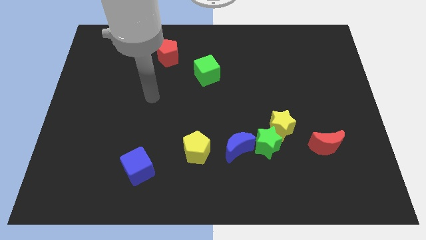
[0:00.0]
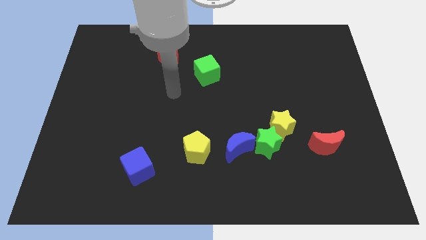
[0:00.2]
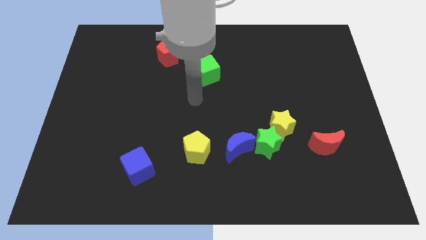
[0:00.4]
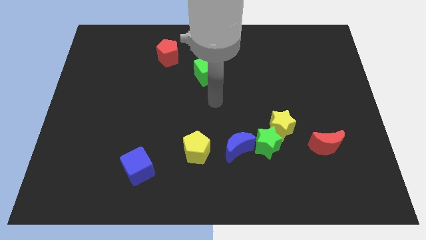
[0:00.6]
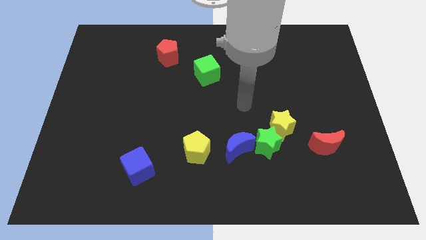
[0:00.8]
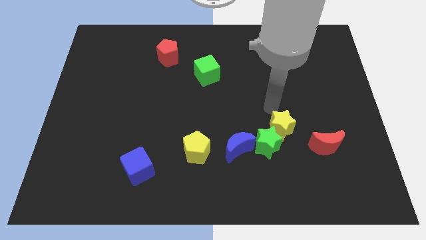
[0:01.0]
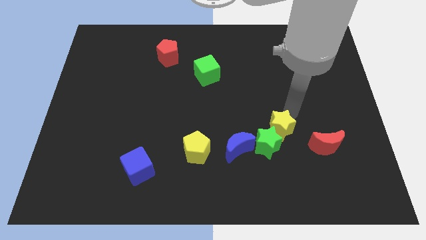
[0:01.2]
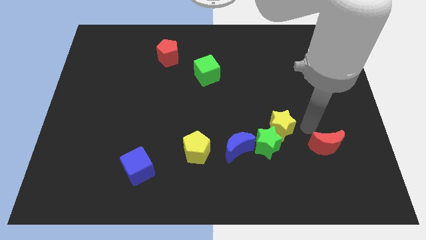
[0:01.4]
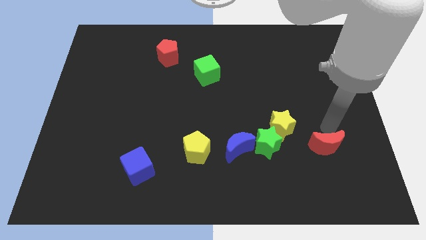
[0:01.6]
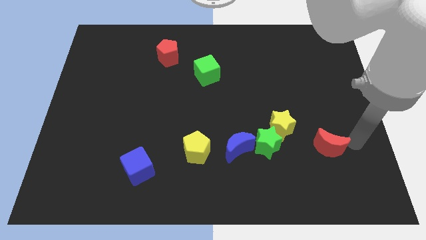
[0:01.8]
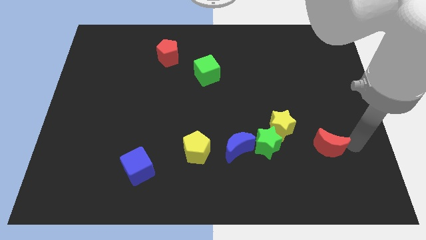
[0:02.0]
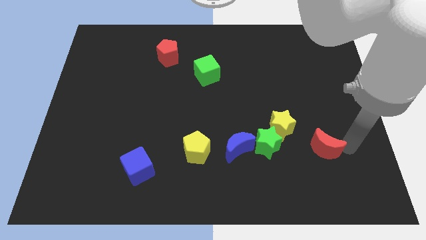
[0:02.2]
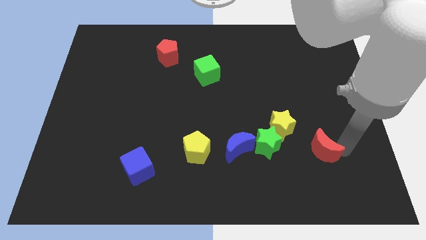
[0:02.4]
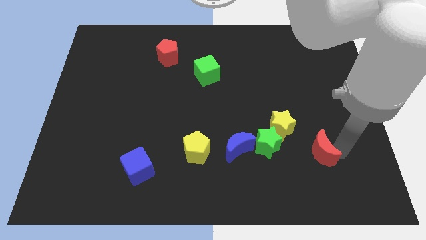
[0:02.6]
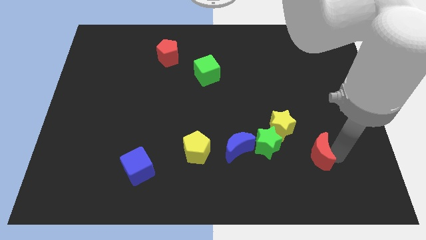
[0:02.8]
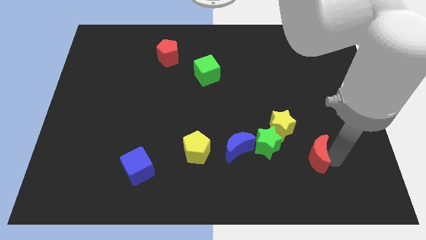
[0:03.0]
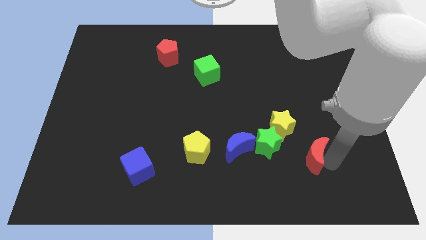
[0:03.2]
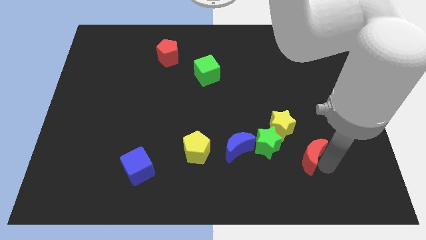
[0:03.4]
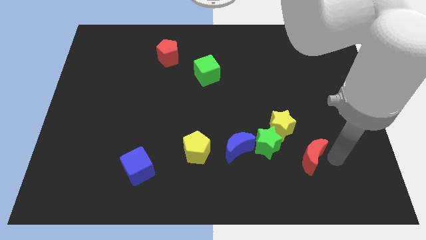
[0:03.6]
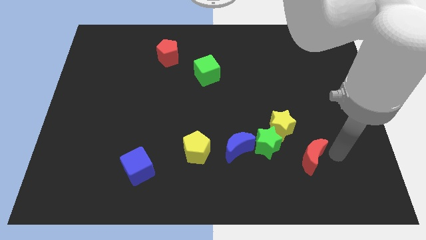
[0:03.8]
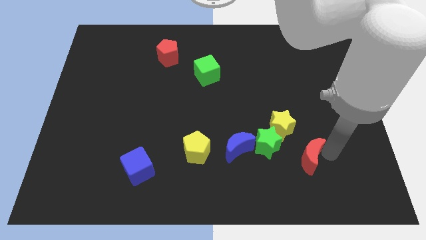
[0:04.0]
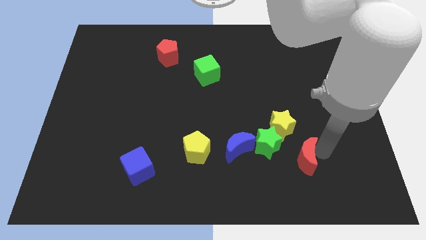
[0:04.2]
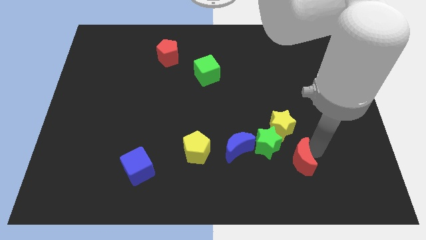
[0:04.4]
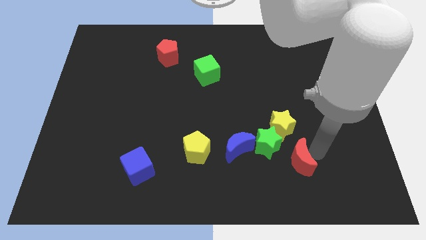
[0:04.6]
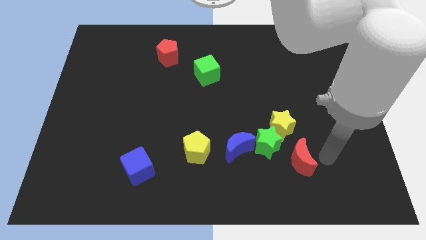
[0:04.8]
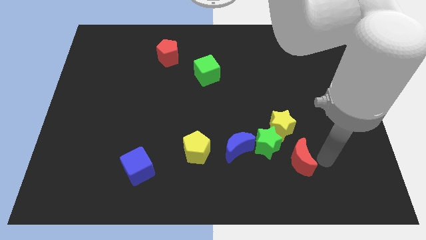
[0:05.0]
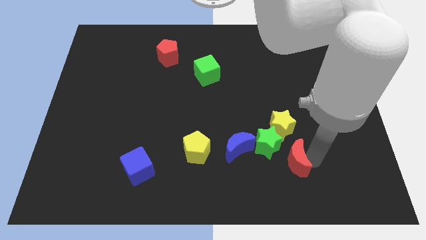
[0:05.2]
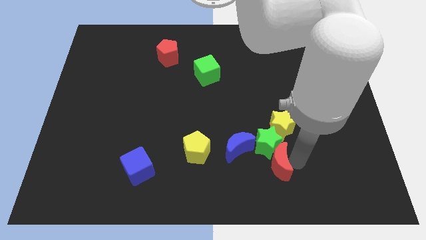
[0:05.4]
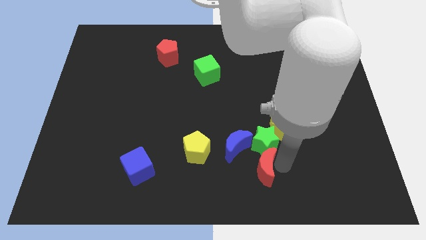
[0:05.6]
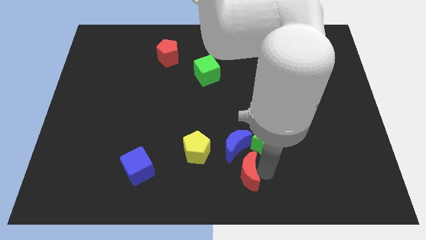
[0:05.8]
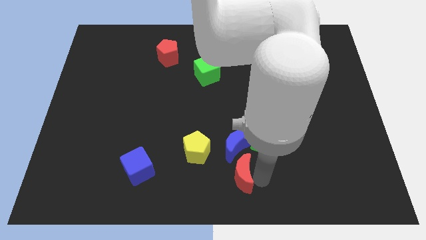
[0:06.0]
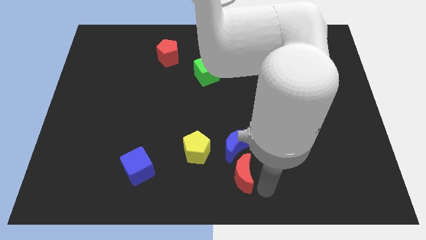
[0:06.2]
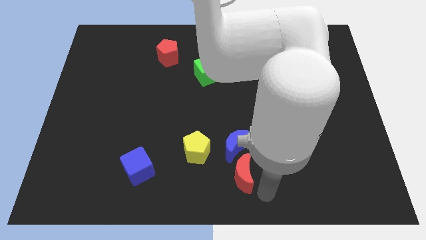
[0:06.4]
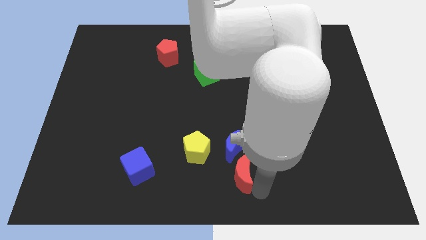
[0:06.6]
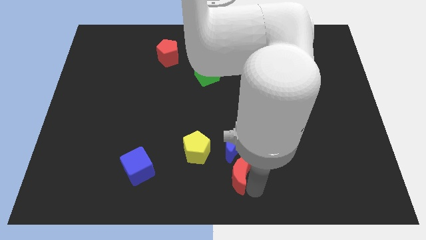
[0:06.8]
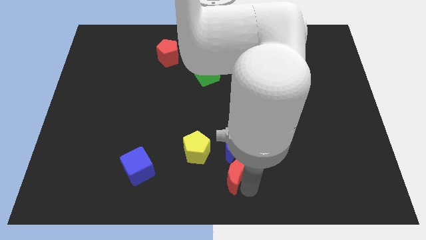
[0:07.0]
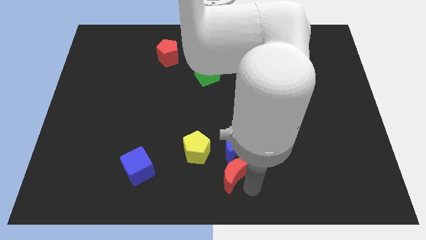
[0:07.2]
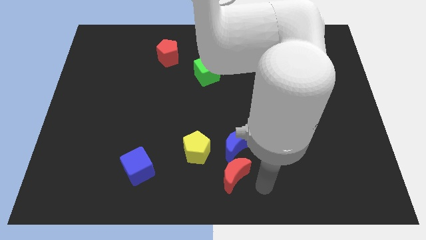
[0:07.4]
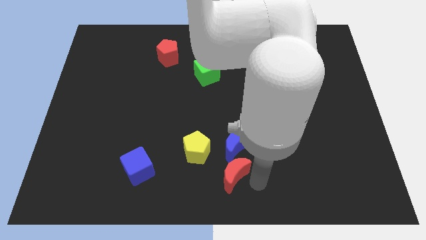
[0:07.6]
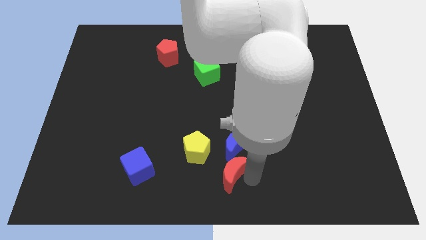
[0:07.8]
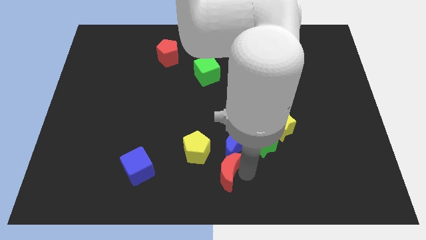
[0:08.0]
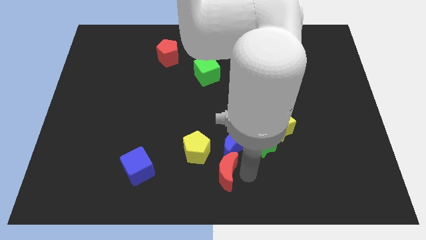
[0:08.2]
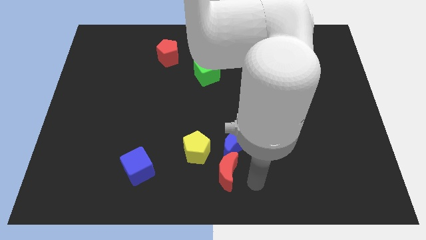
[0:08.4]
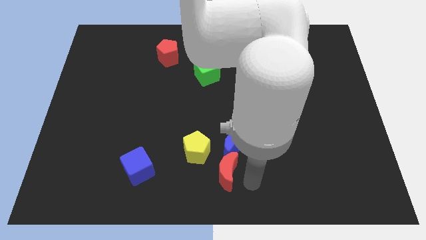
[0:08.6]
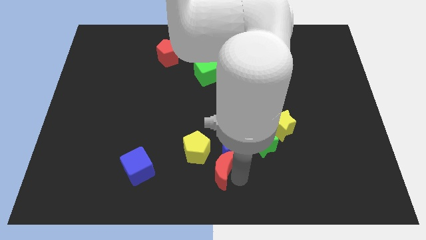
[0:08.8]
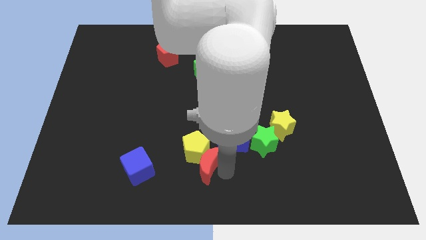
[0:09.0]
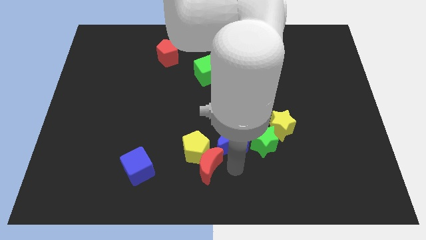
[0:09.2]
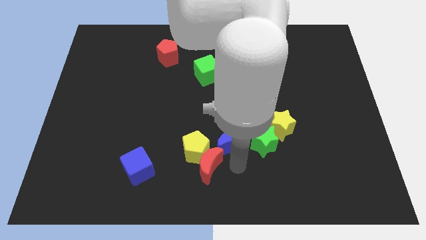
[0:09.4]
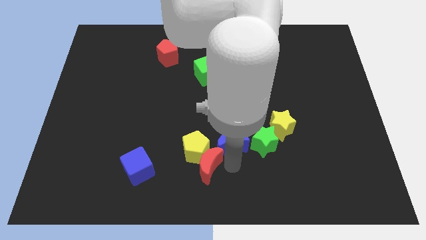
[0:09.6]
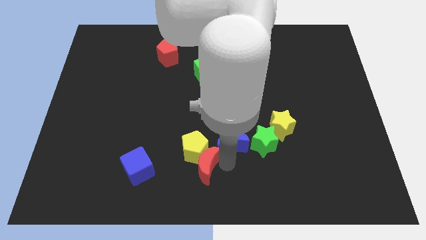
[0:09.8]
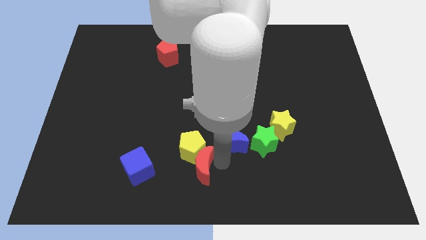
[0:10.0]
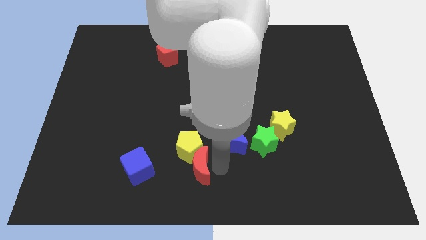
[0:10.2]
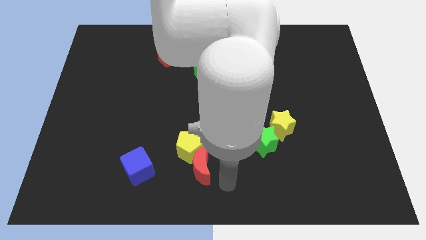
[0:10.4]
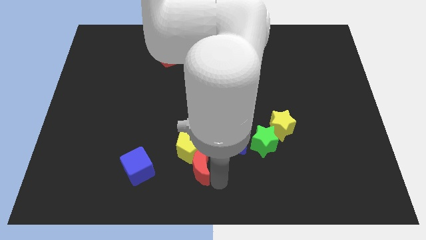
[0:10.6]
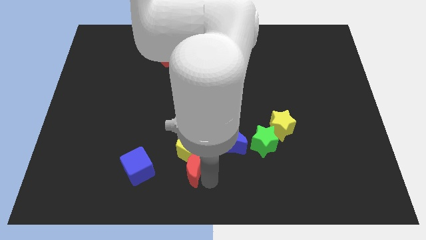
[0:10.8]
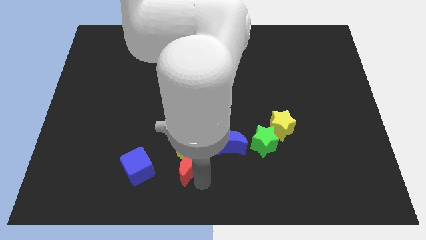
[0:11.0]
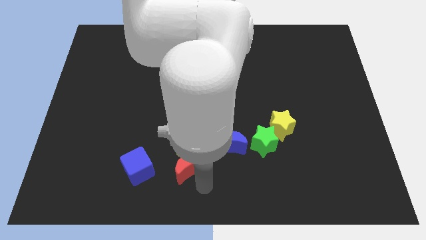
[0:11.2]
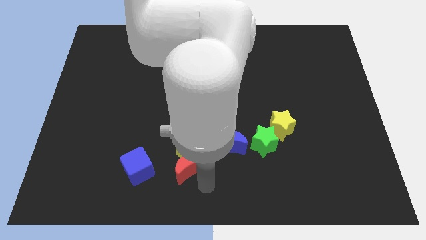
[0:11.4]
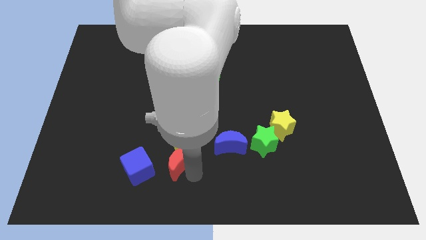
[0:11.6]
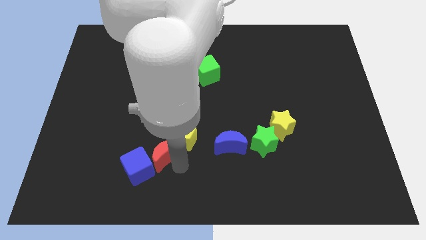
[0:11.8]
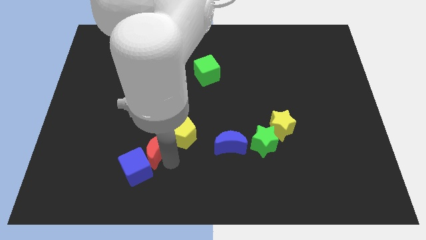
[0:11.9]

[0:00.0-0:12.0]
move the red moon to the top of the blue cube
